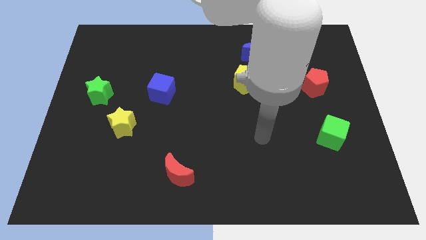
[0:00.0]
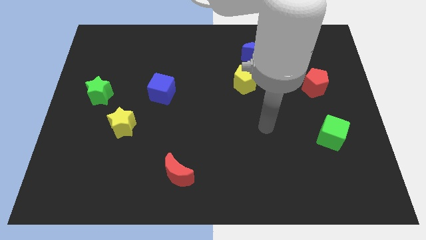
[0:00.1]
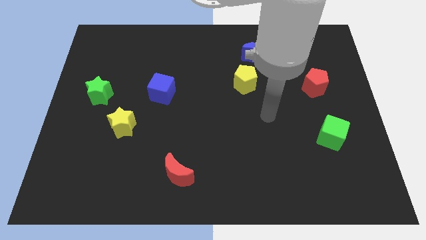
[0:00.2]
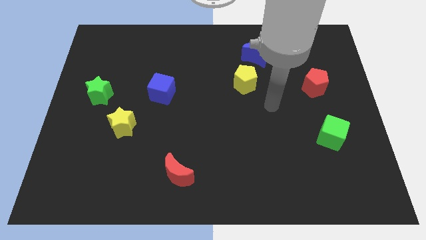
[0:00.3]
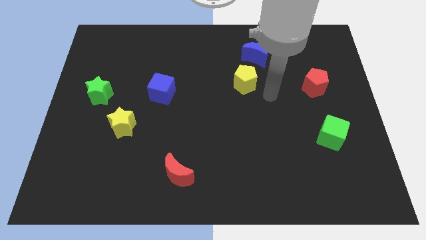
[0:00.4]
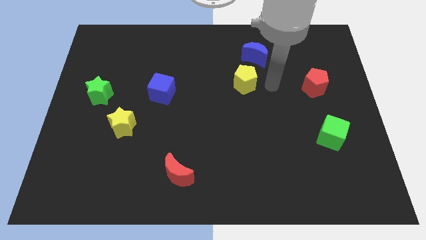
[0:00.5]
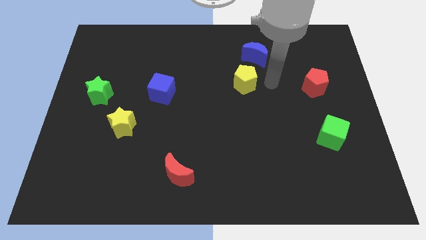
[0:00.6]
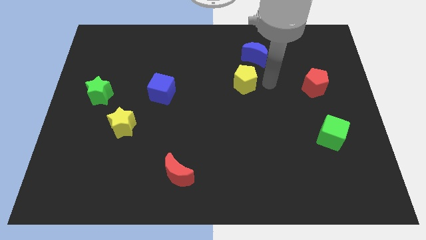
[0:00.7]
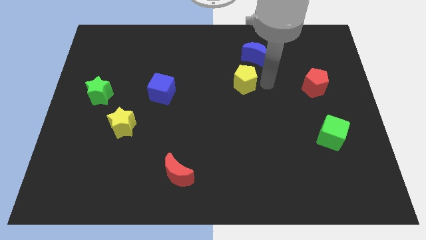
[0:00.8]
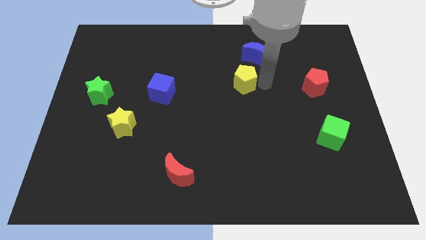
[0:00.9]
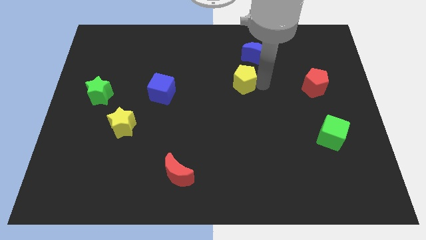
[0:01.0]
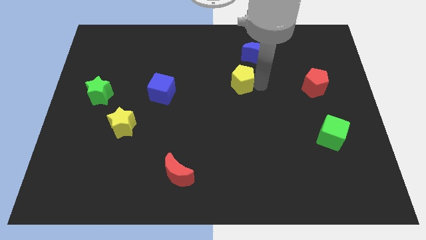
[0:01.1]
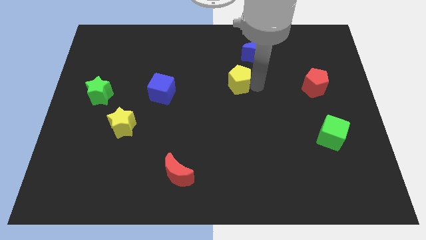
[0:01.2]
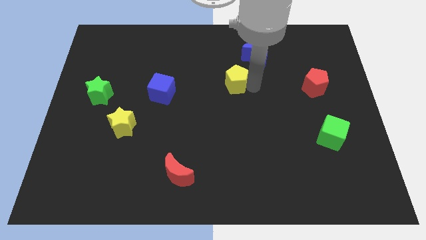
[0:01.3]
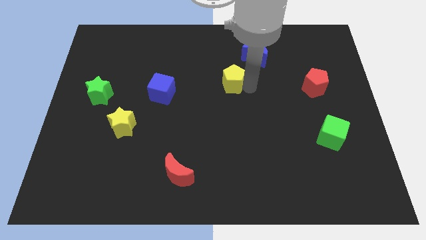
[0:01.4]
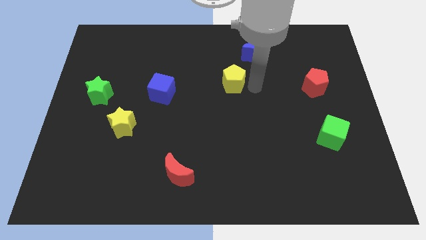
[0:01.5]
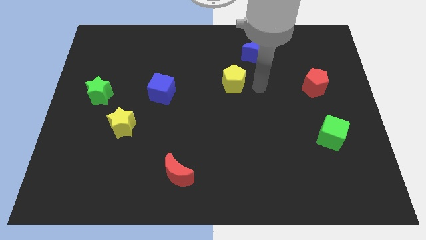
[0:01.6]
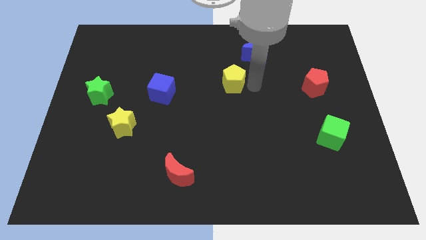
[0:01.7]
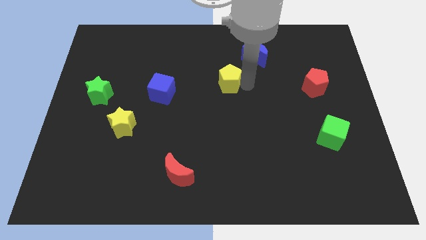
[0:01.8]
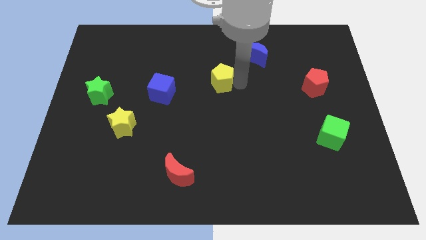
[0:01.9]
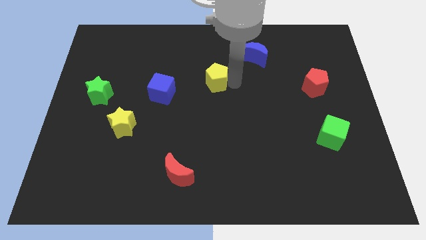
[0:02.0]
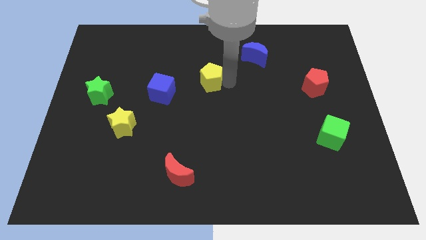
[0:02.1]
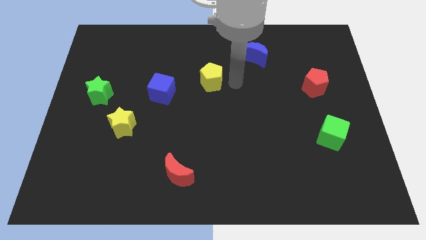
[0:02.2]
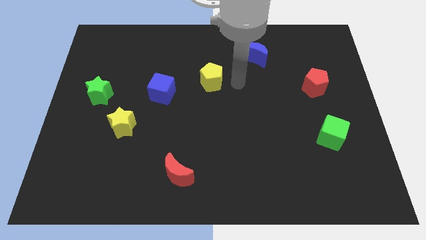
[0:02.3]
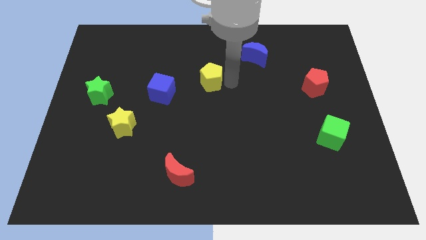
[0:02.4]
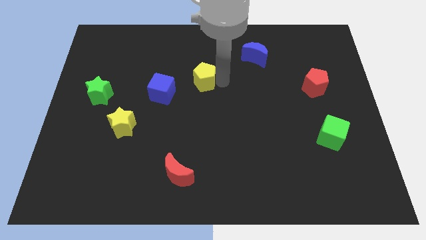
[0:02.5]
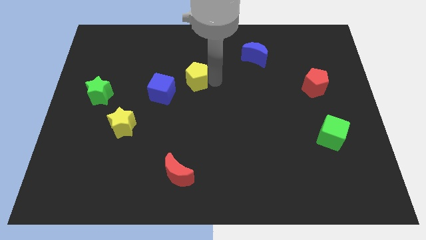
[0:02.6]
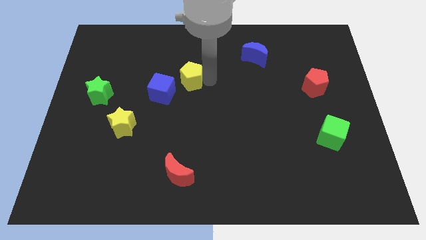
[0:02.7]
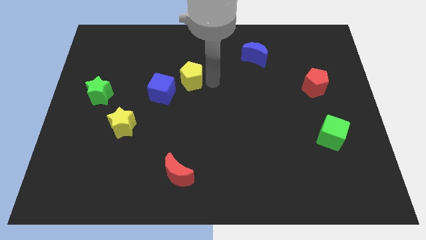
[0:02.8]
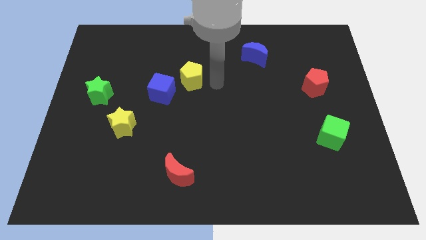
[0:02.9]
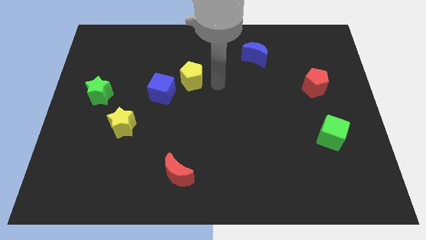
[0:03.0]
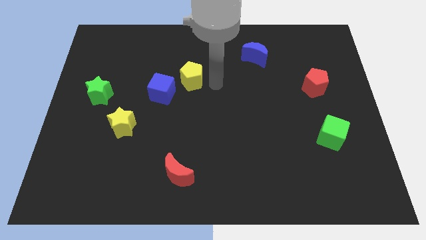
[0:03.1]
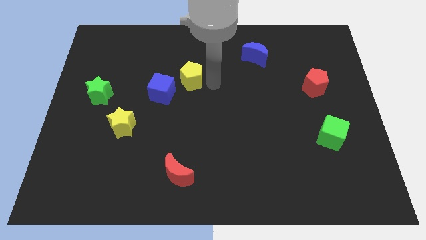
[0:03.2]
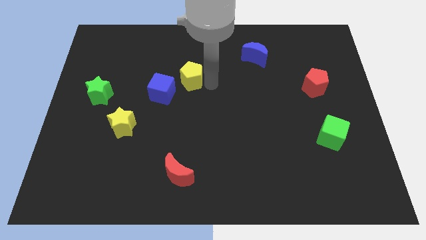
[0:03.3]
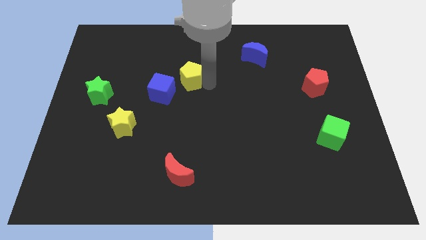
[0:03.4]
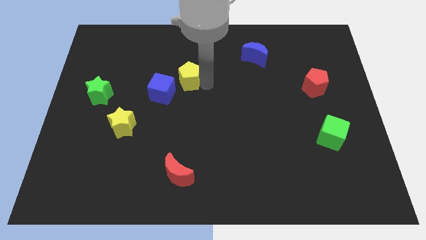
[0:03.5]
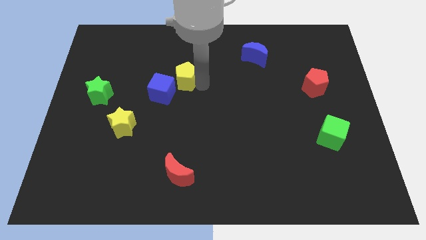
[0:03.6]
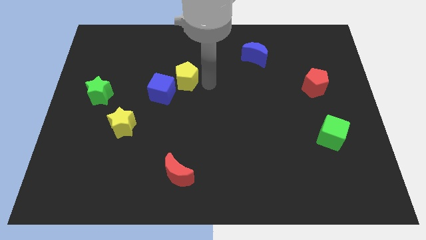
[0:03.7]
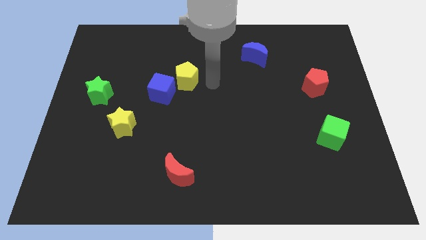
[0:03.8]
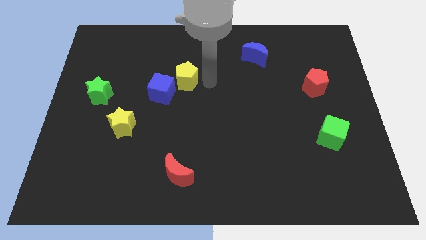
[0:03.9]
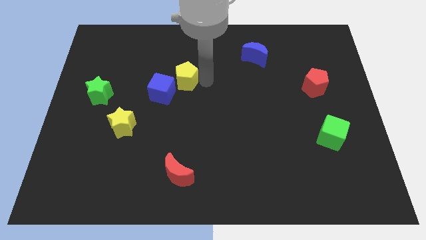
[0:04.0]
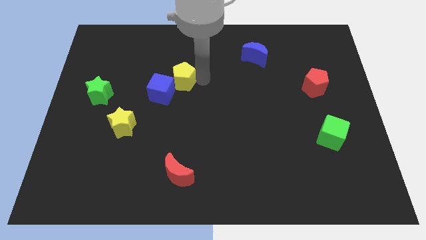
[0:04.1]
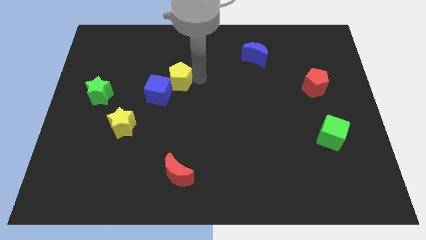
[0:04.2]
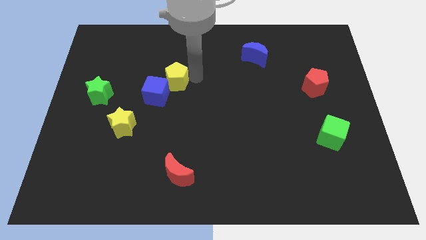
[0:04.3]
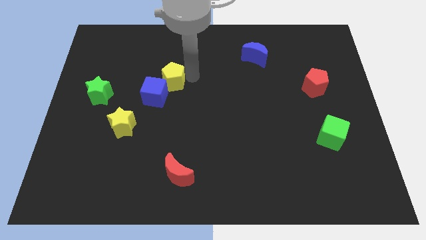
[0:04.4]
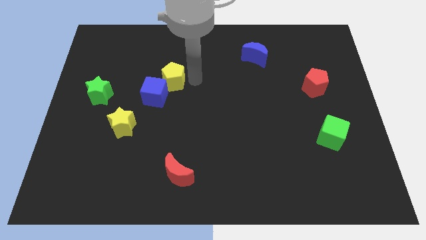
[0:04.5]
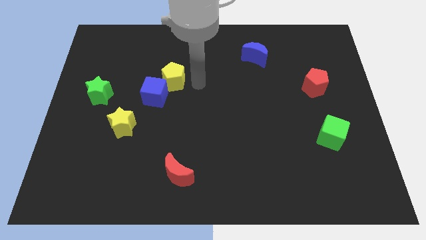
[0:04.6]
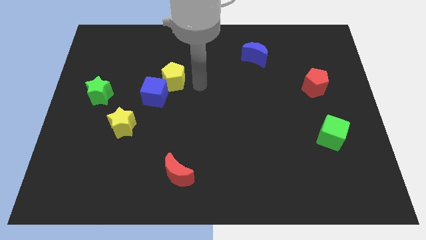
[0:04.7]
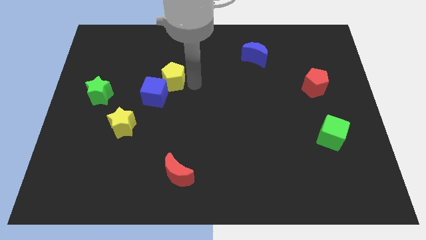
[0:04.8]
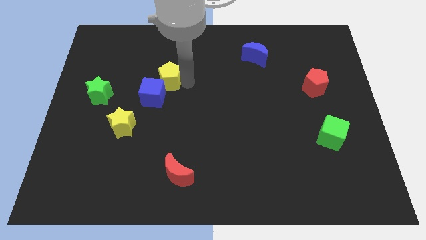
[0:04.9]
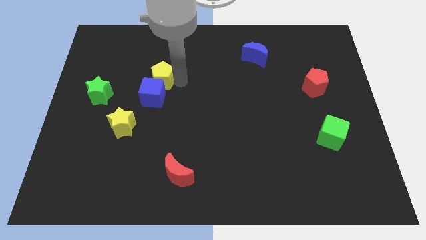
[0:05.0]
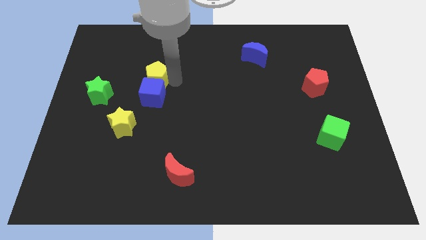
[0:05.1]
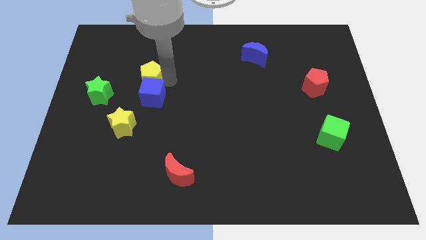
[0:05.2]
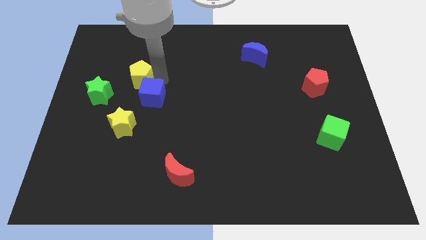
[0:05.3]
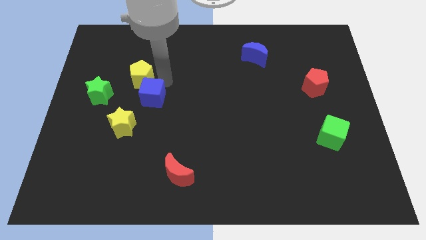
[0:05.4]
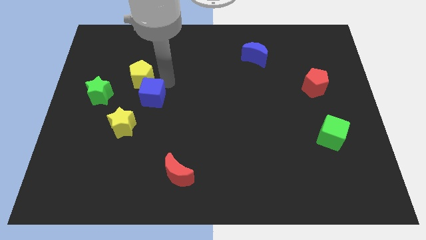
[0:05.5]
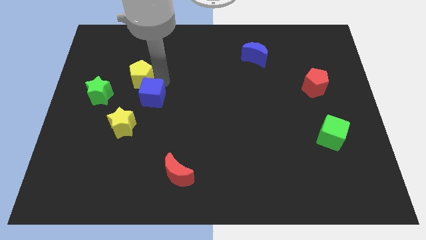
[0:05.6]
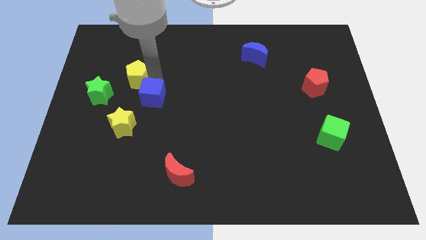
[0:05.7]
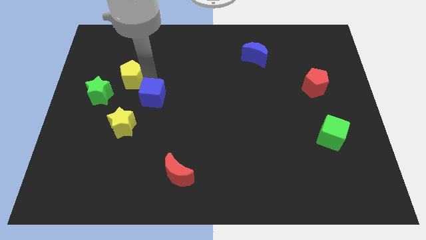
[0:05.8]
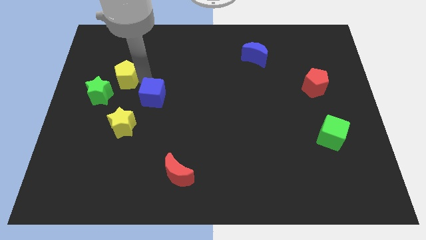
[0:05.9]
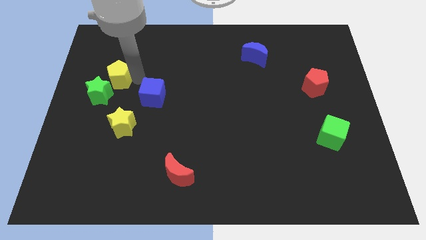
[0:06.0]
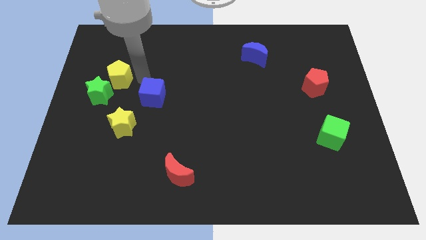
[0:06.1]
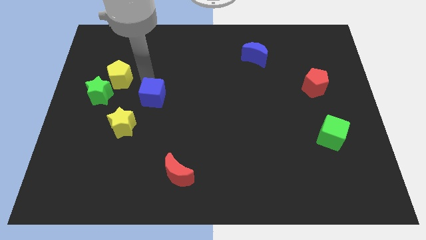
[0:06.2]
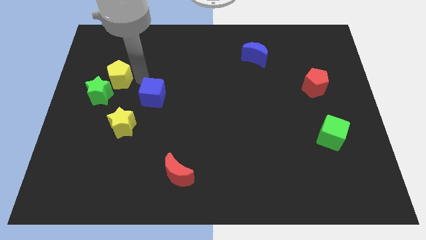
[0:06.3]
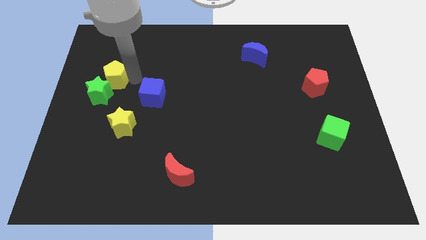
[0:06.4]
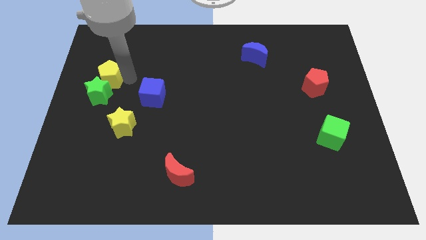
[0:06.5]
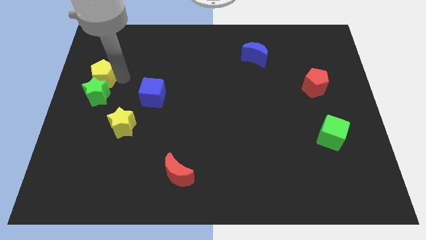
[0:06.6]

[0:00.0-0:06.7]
slide the yellow pentagon to the center left
